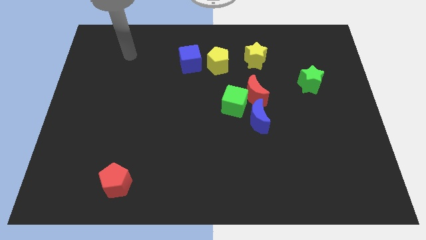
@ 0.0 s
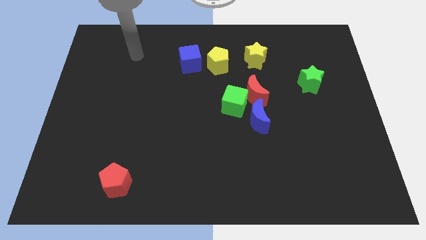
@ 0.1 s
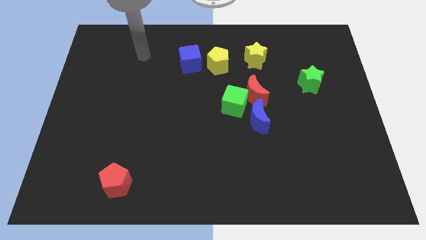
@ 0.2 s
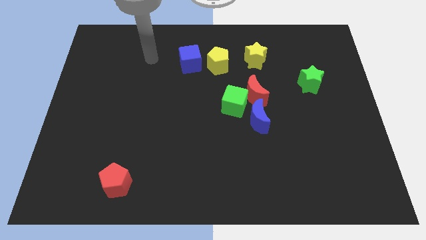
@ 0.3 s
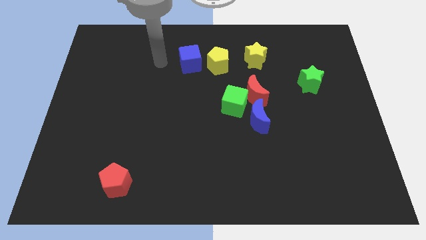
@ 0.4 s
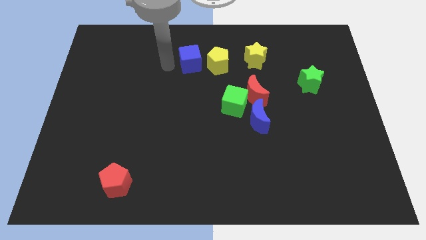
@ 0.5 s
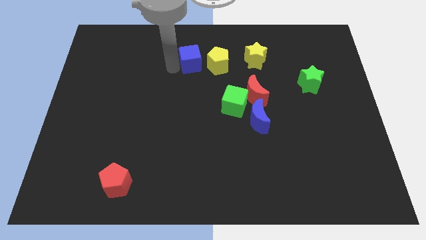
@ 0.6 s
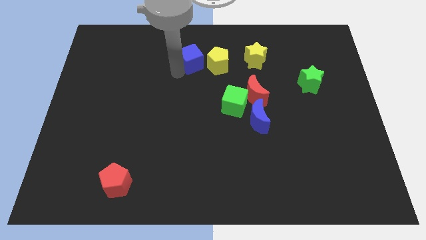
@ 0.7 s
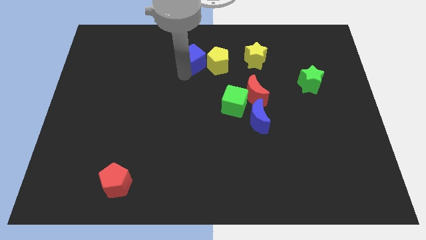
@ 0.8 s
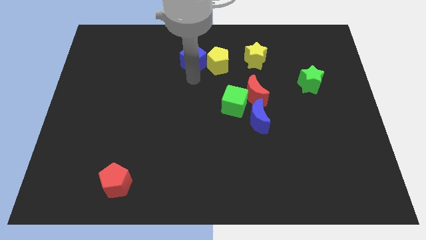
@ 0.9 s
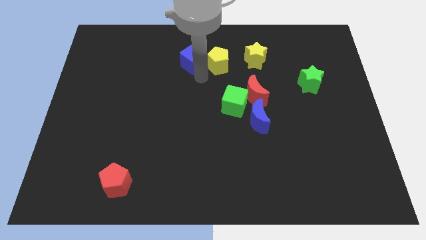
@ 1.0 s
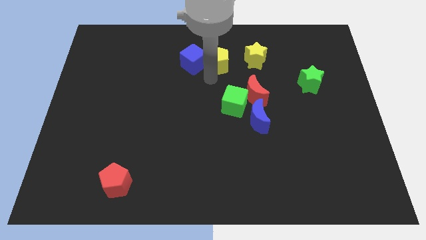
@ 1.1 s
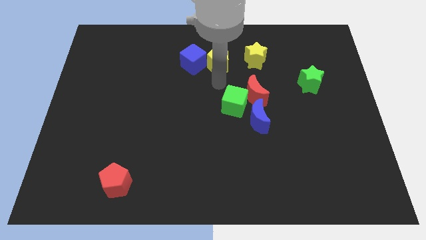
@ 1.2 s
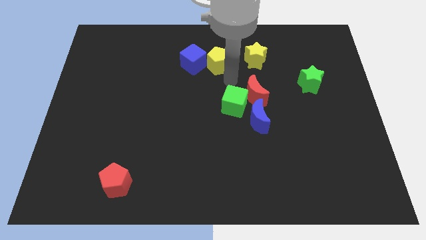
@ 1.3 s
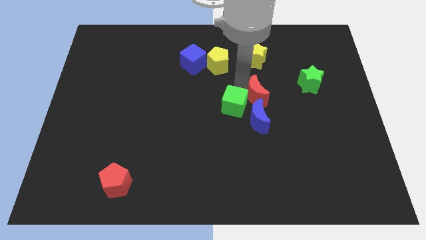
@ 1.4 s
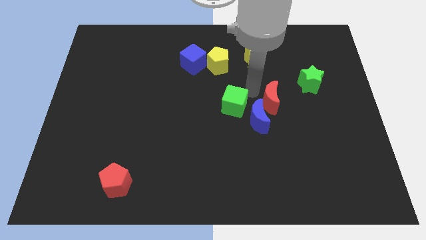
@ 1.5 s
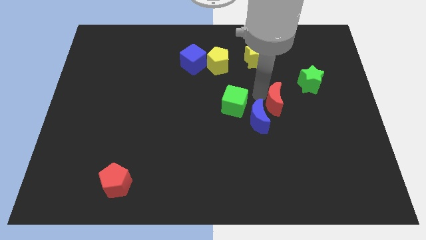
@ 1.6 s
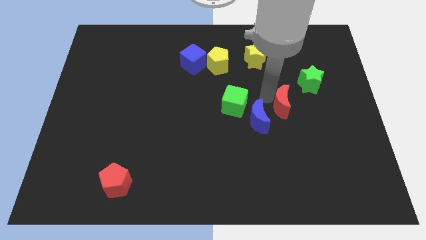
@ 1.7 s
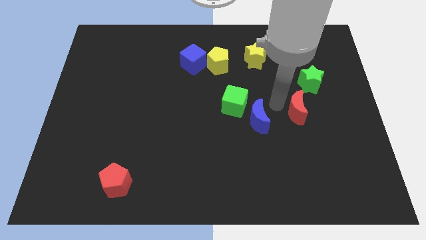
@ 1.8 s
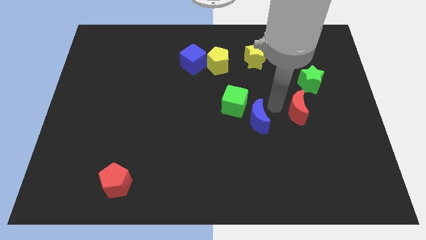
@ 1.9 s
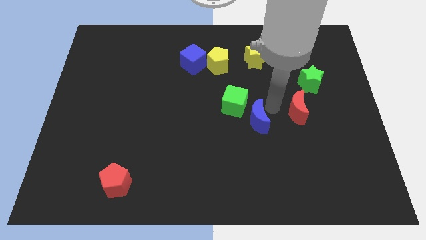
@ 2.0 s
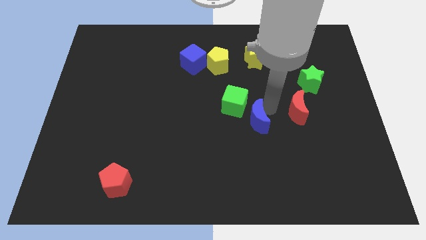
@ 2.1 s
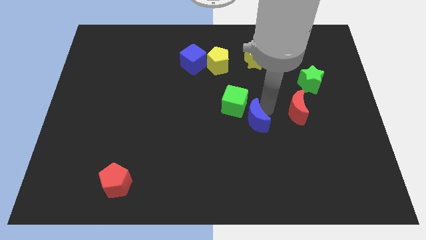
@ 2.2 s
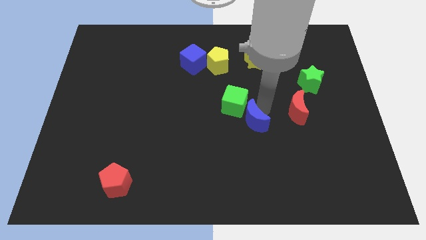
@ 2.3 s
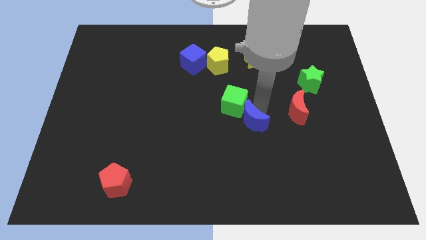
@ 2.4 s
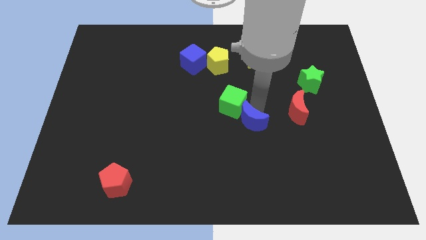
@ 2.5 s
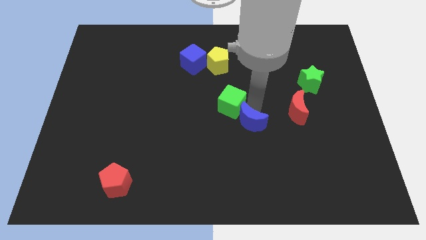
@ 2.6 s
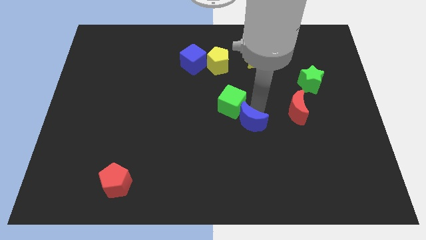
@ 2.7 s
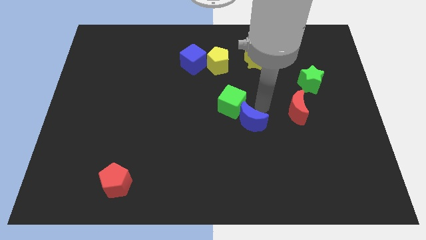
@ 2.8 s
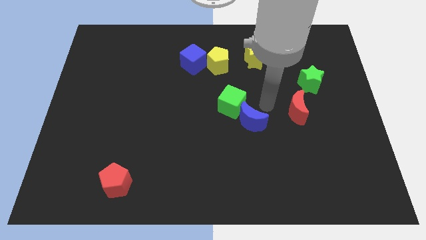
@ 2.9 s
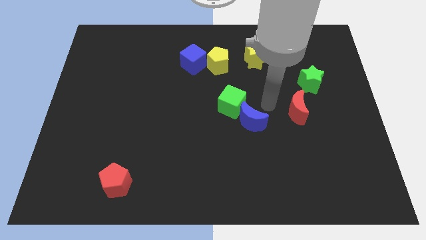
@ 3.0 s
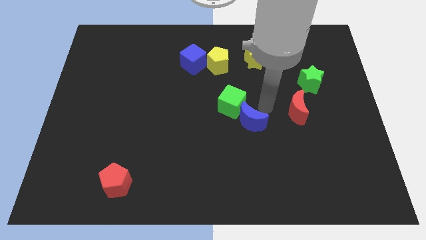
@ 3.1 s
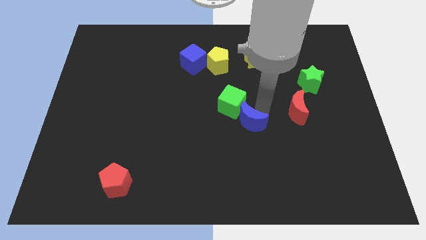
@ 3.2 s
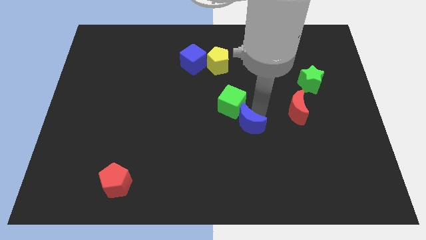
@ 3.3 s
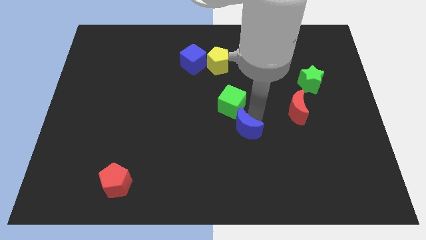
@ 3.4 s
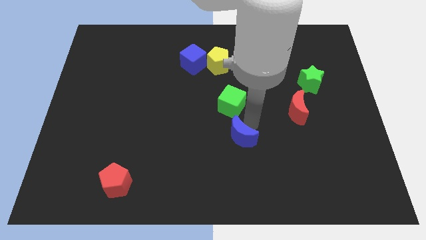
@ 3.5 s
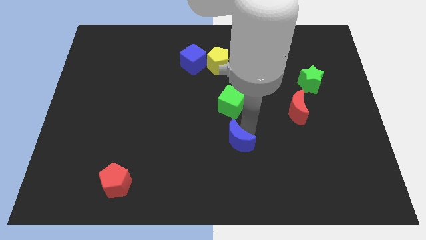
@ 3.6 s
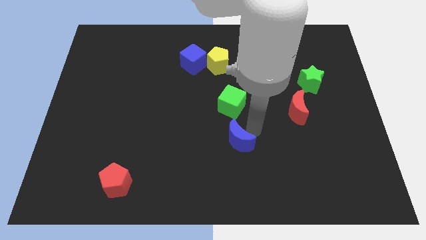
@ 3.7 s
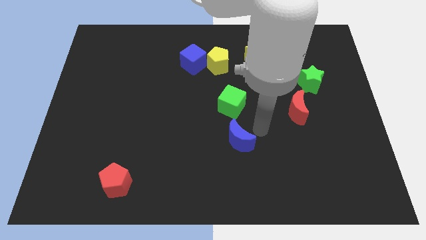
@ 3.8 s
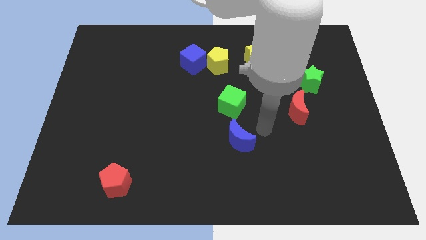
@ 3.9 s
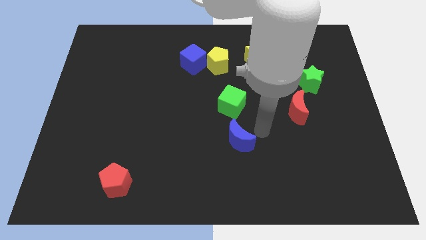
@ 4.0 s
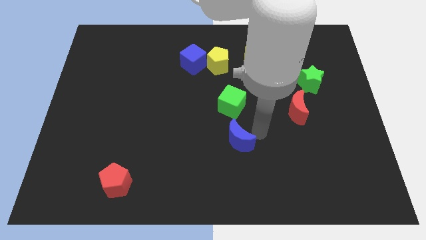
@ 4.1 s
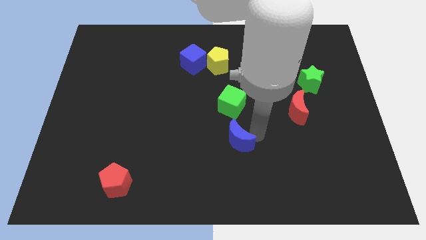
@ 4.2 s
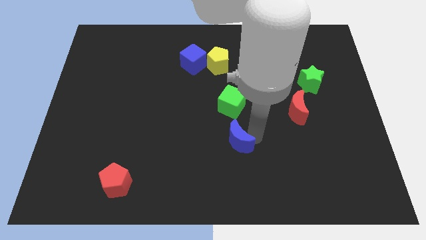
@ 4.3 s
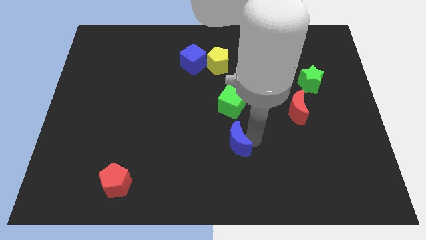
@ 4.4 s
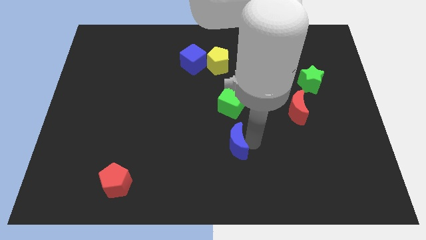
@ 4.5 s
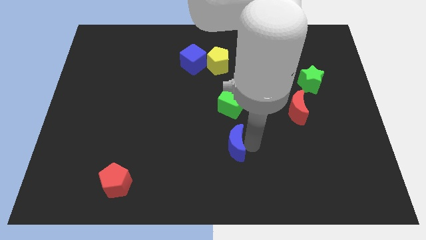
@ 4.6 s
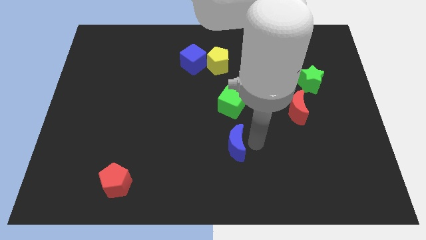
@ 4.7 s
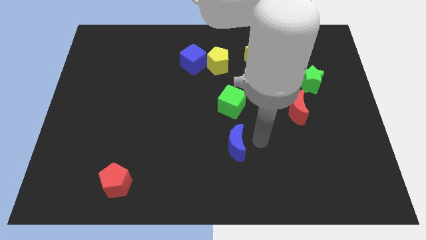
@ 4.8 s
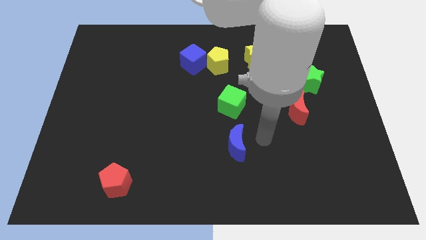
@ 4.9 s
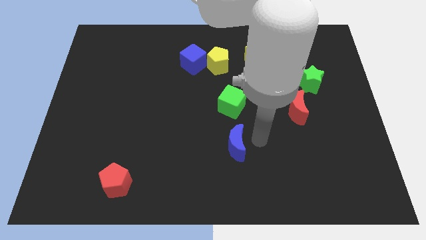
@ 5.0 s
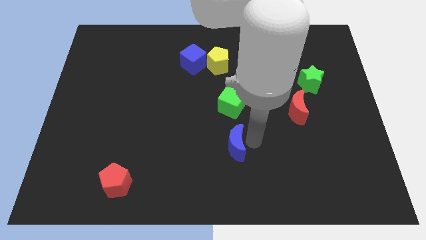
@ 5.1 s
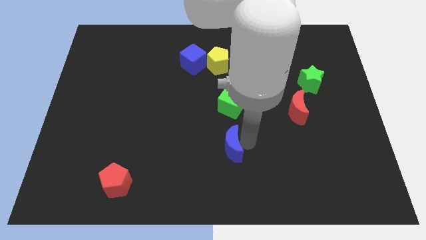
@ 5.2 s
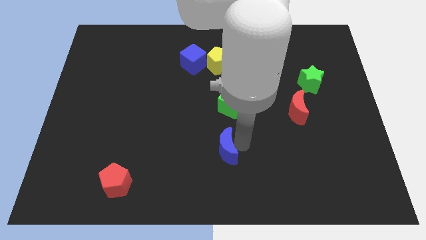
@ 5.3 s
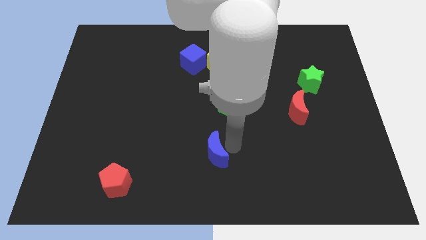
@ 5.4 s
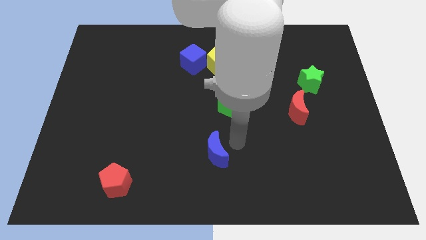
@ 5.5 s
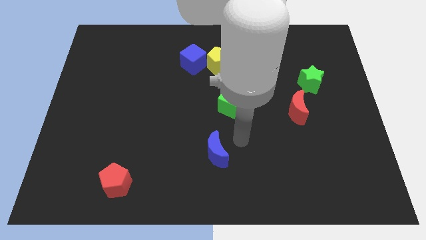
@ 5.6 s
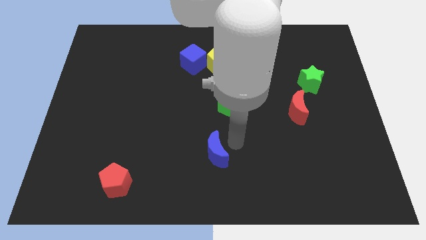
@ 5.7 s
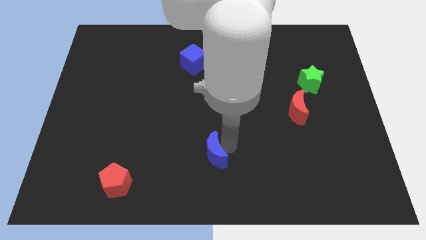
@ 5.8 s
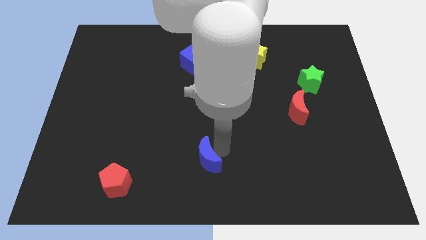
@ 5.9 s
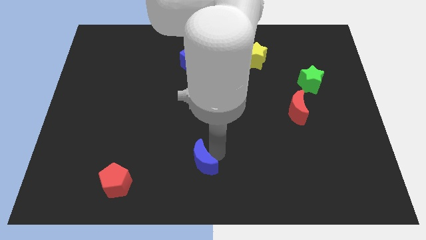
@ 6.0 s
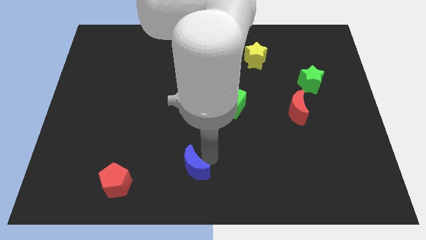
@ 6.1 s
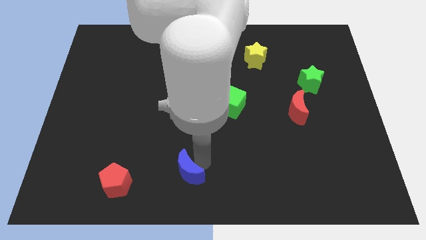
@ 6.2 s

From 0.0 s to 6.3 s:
put the blue moon to the right side of the red pentagon
